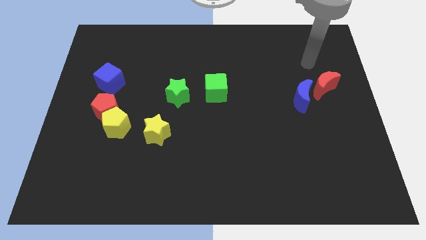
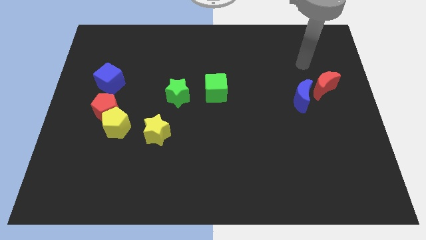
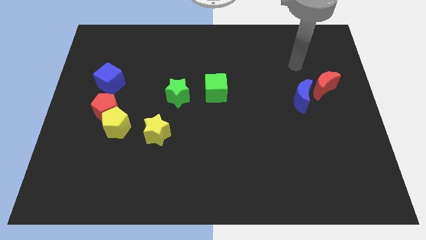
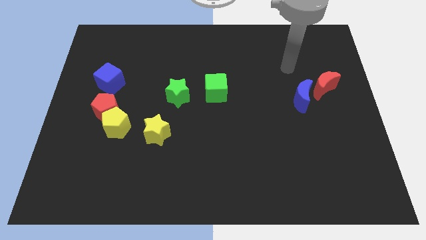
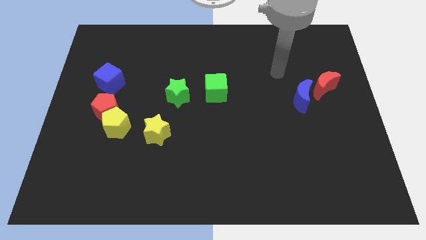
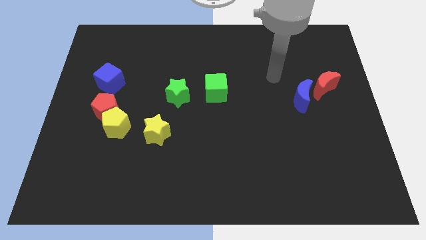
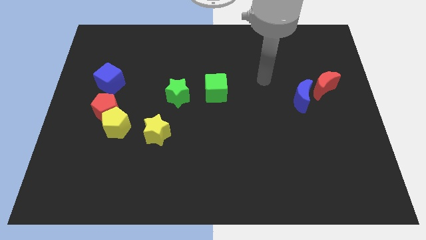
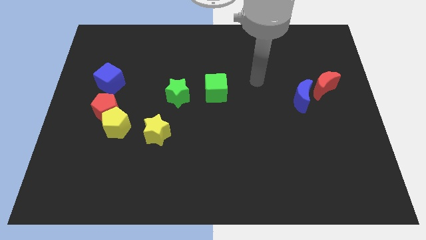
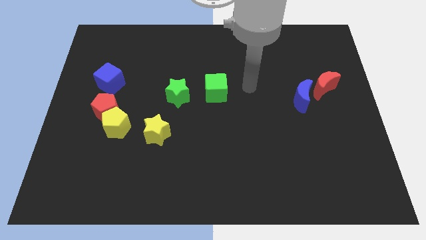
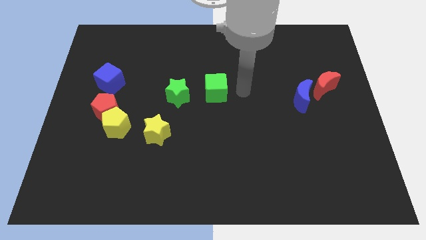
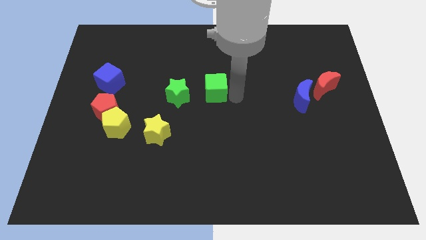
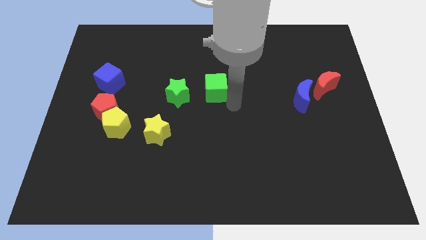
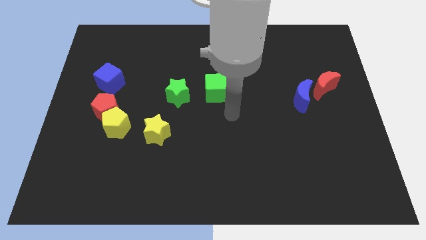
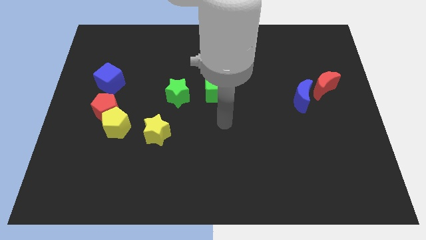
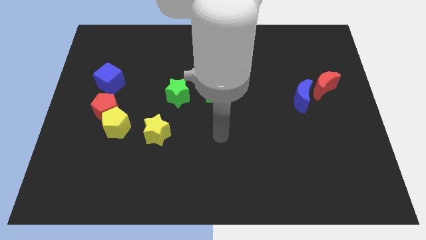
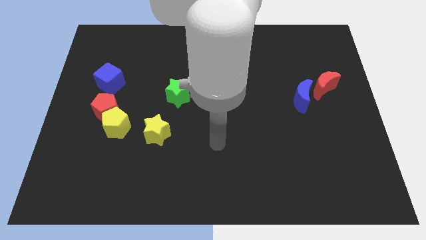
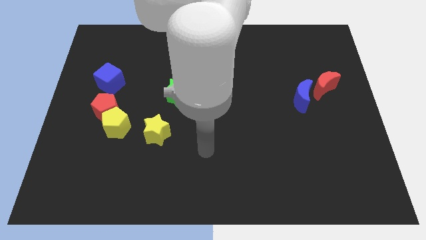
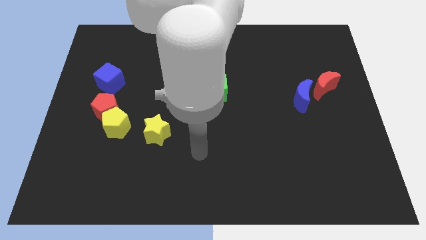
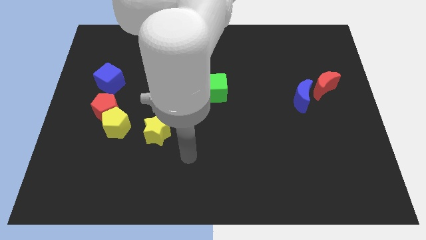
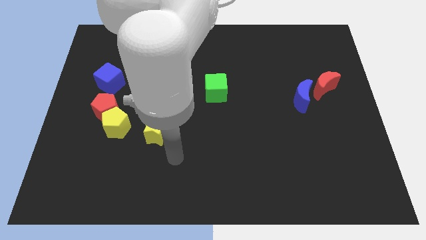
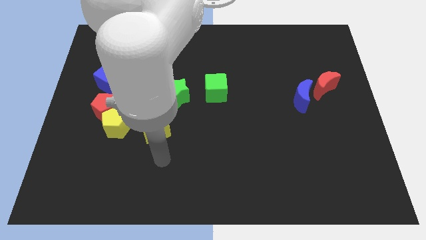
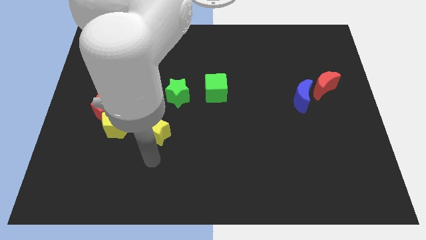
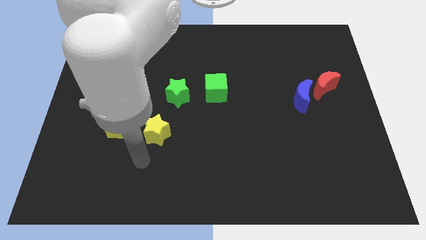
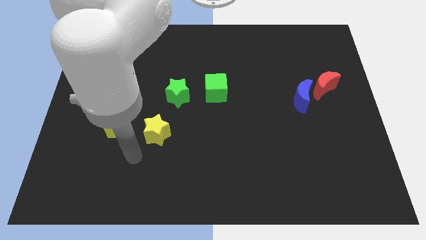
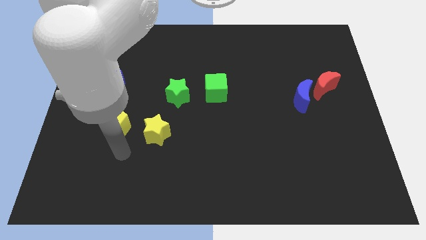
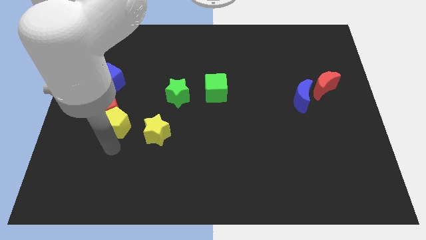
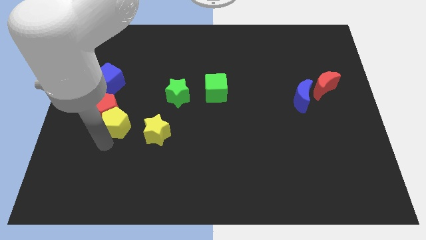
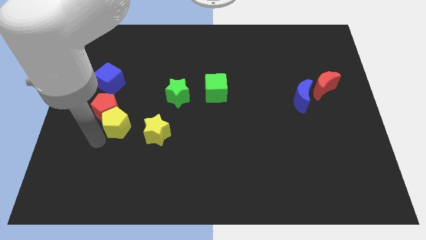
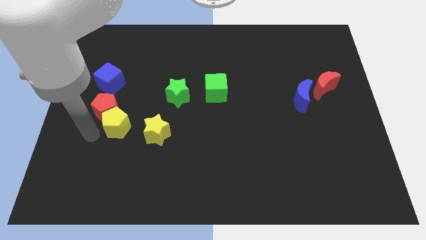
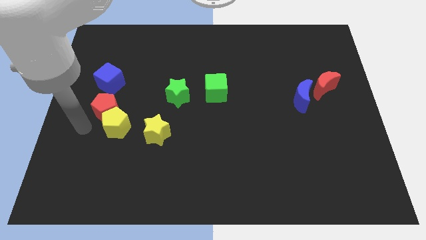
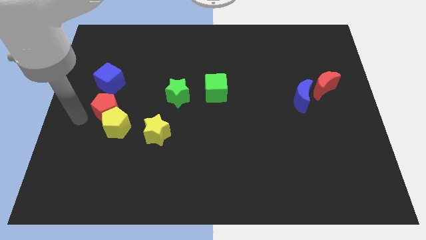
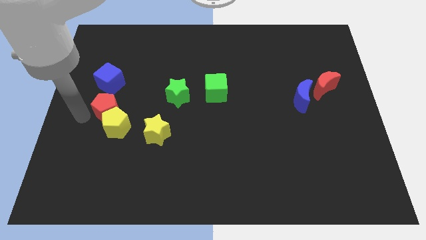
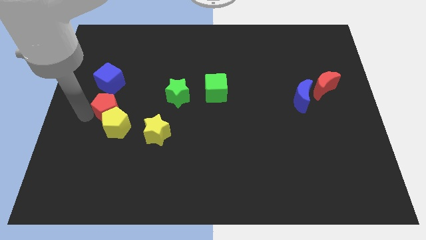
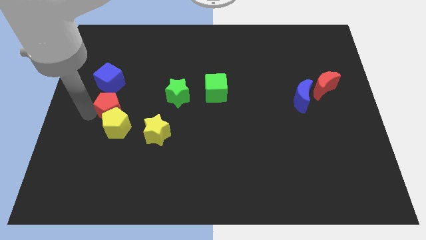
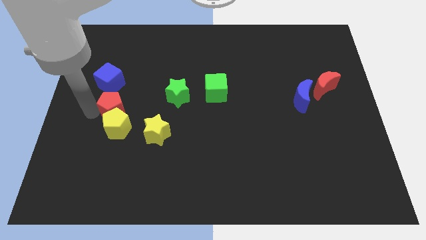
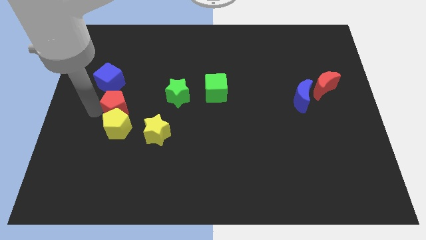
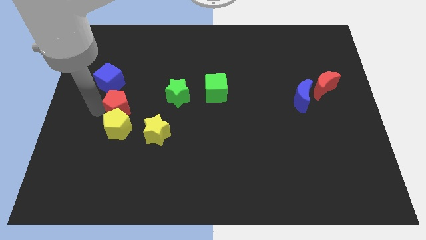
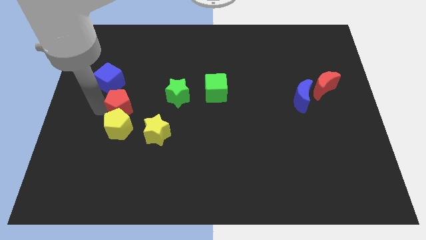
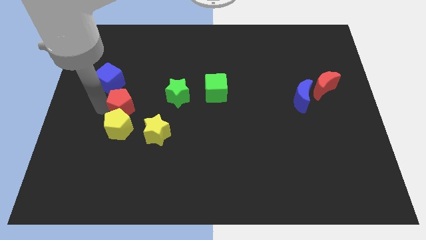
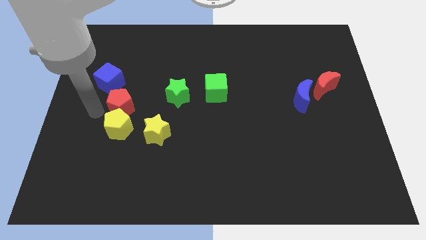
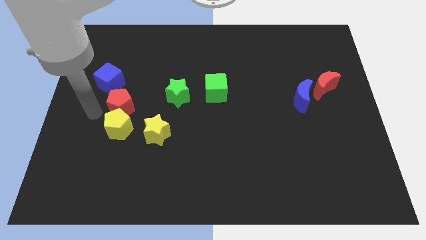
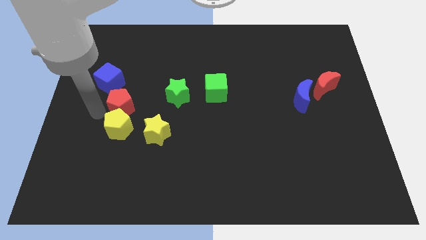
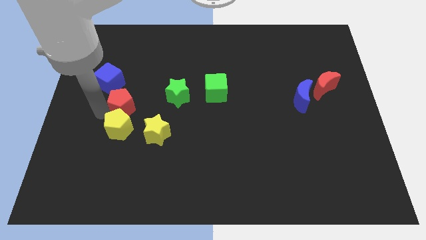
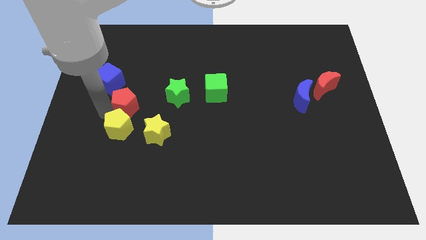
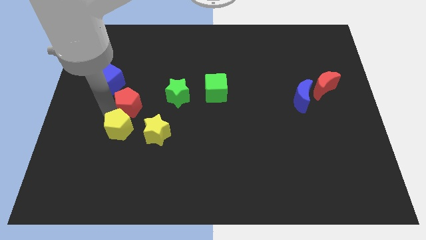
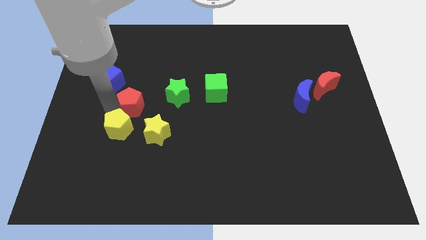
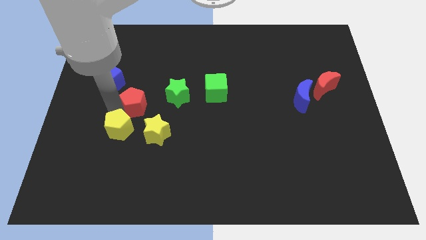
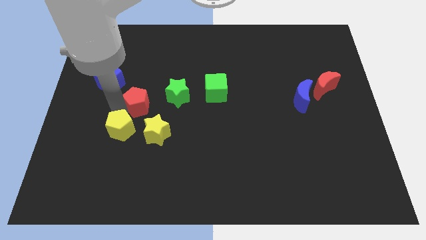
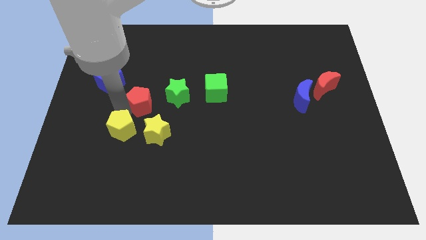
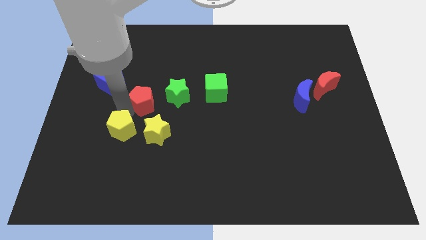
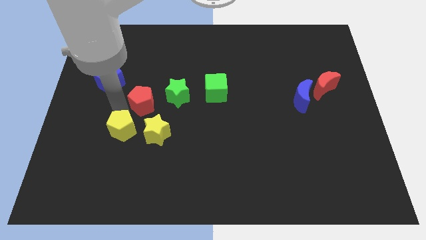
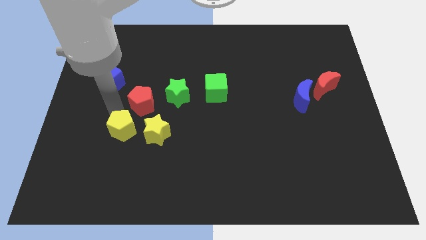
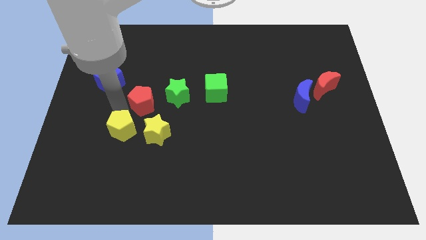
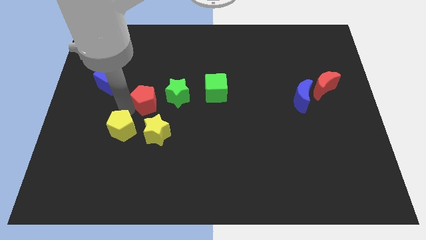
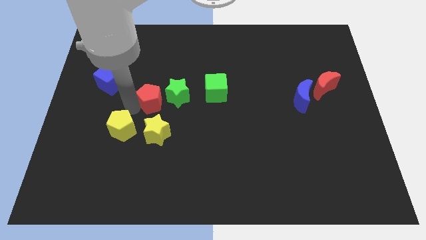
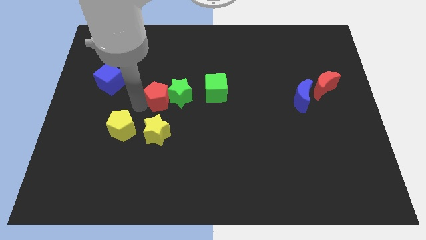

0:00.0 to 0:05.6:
move the red pentagon close to the green star
